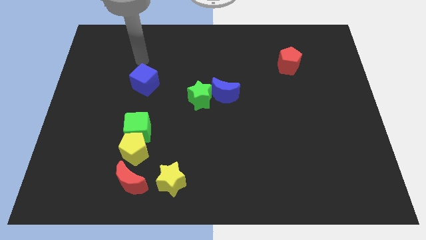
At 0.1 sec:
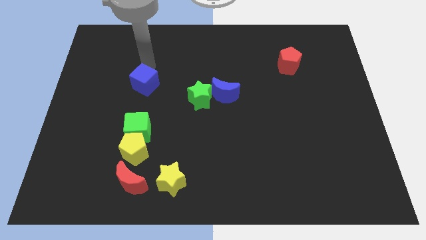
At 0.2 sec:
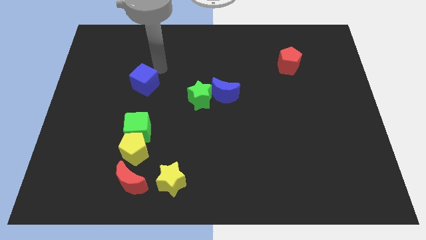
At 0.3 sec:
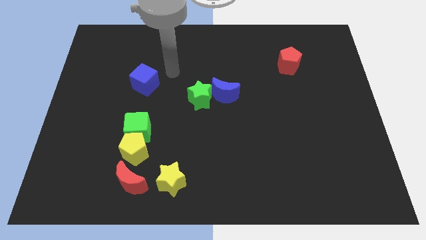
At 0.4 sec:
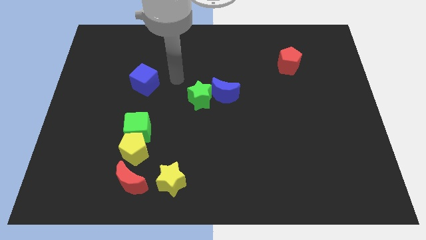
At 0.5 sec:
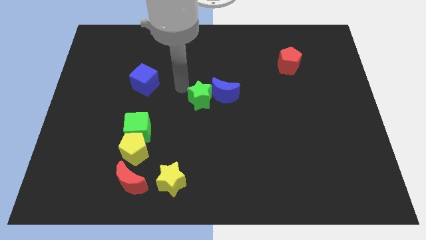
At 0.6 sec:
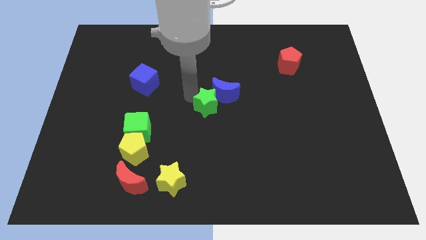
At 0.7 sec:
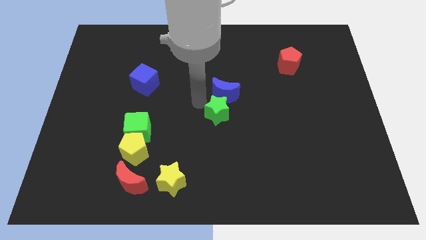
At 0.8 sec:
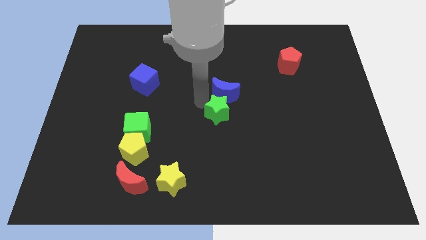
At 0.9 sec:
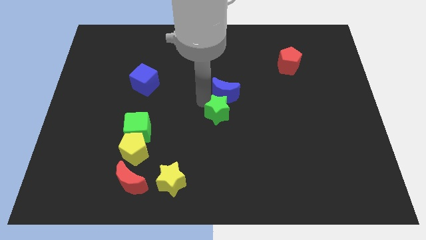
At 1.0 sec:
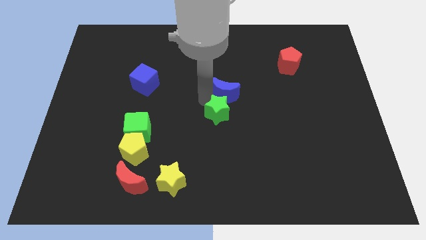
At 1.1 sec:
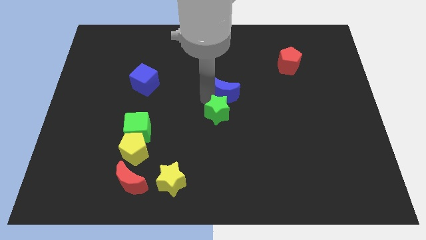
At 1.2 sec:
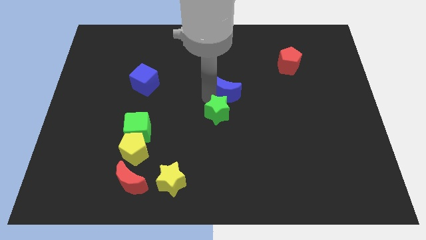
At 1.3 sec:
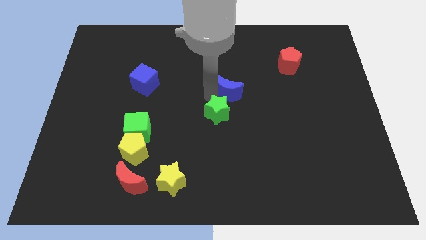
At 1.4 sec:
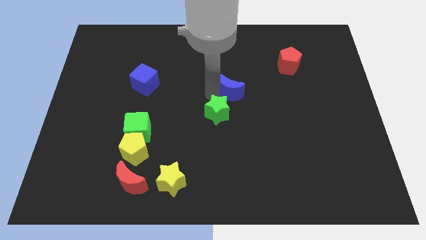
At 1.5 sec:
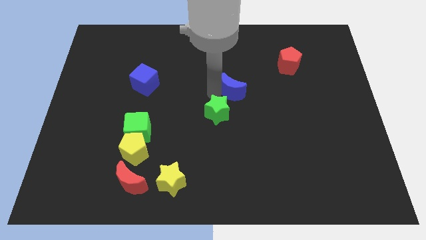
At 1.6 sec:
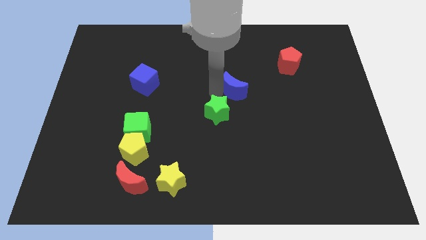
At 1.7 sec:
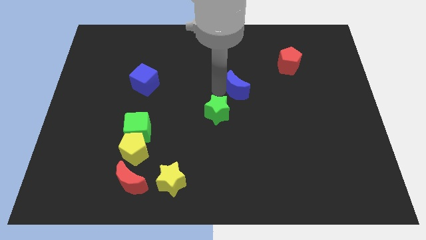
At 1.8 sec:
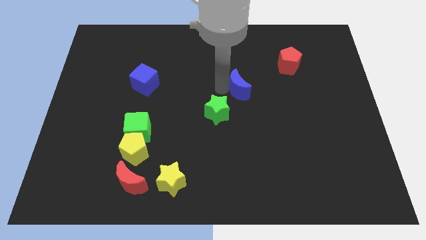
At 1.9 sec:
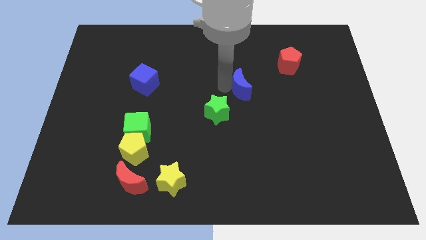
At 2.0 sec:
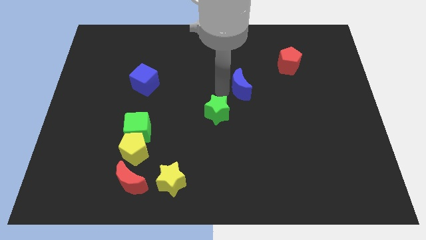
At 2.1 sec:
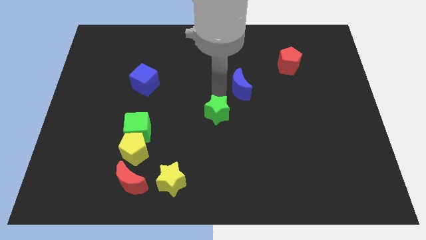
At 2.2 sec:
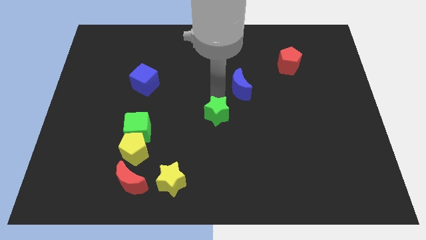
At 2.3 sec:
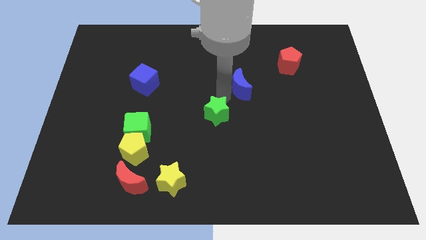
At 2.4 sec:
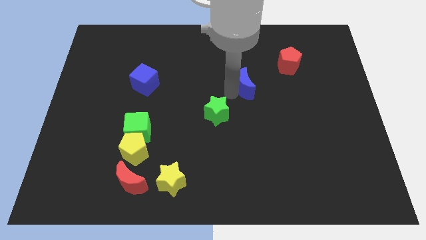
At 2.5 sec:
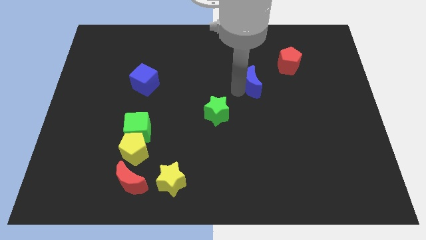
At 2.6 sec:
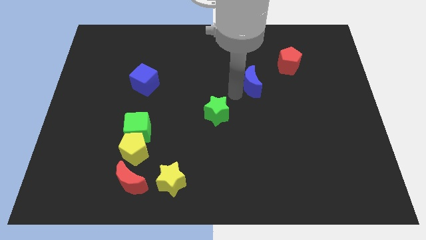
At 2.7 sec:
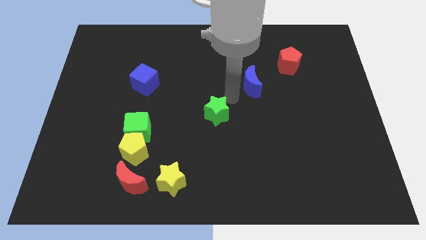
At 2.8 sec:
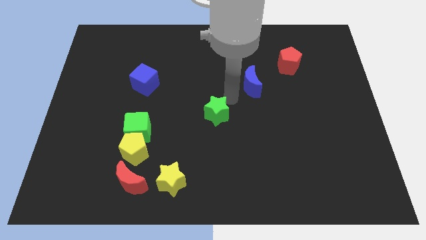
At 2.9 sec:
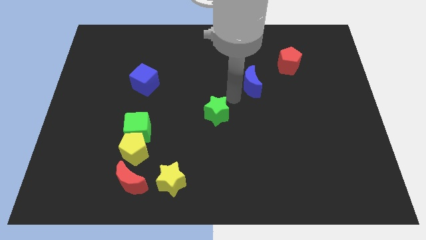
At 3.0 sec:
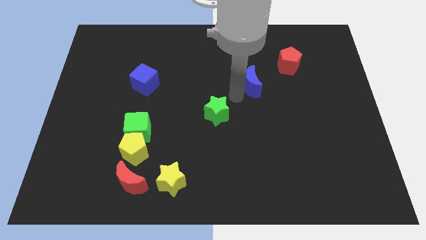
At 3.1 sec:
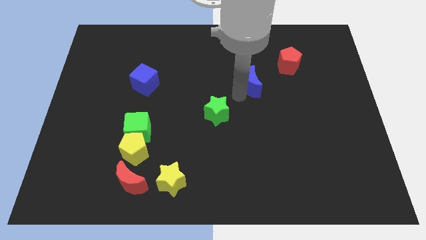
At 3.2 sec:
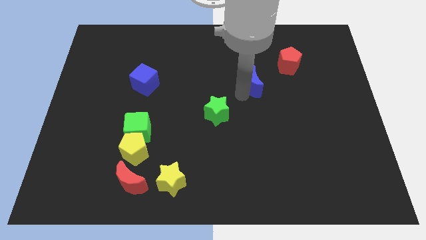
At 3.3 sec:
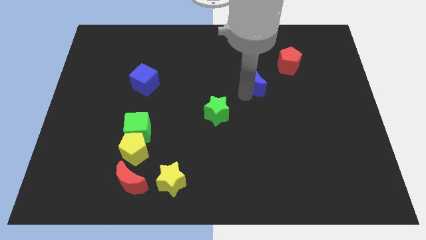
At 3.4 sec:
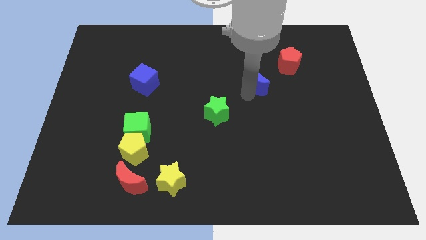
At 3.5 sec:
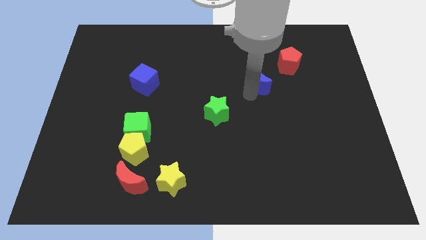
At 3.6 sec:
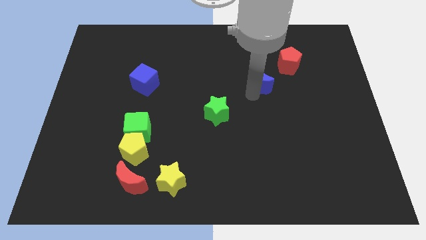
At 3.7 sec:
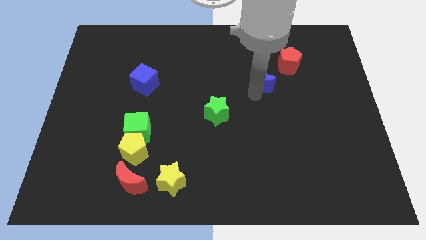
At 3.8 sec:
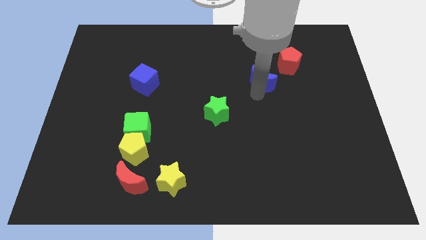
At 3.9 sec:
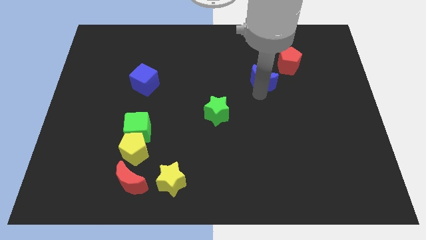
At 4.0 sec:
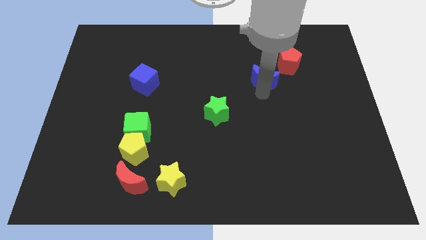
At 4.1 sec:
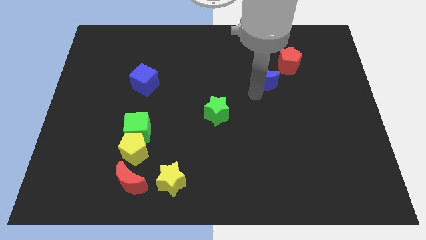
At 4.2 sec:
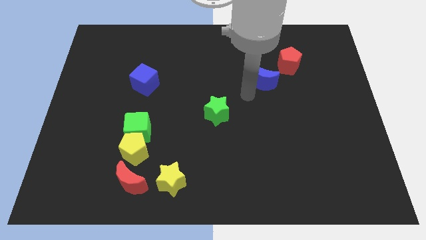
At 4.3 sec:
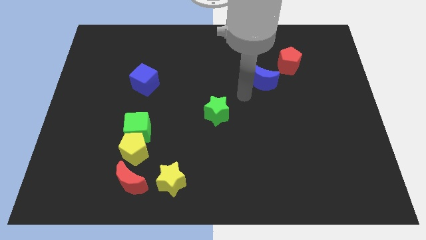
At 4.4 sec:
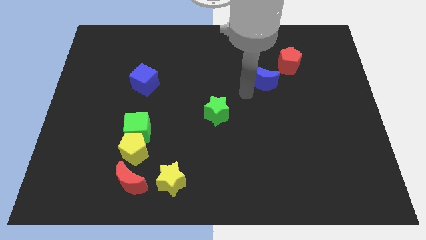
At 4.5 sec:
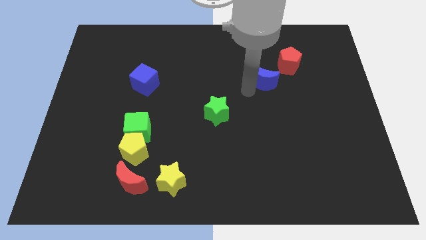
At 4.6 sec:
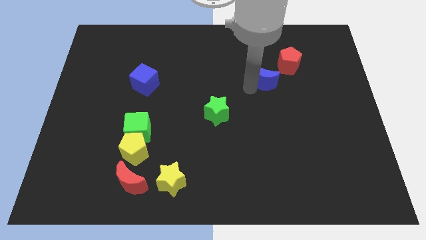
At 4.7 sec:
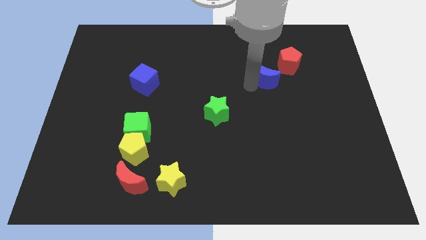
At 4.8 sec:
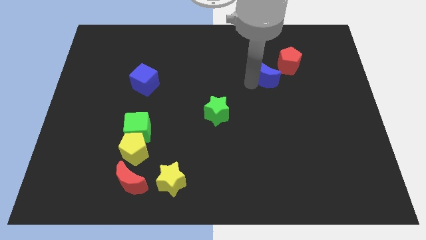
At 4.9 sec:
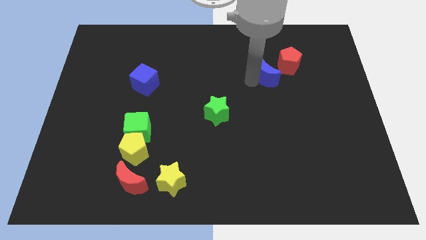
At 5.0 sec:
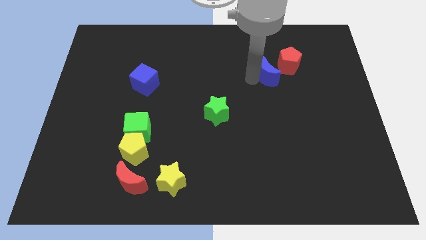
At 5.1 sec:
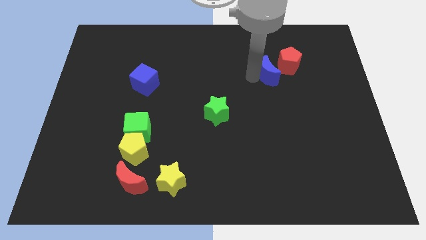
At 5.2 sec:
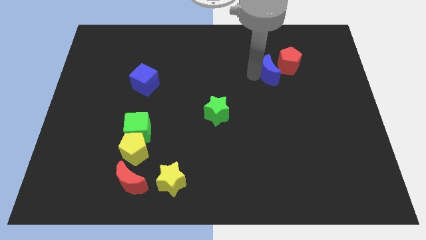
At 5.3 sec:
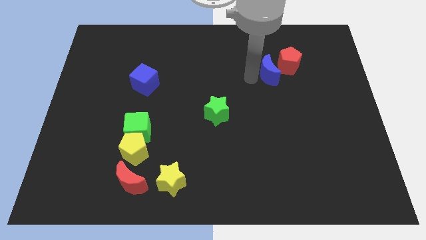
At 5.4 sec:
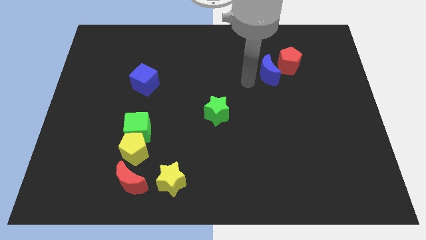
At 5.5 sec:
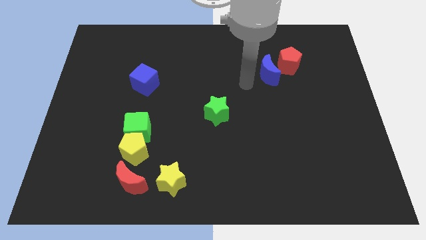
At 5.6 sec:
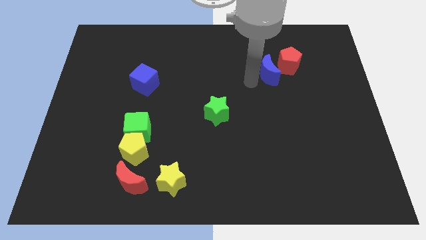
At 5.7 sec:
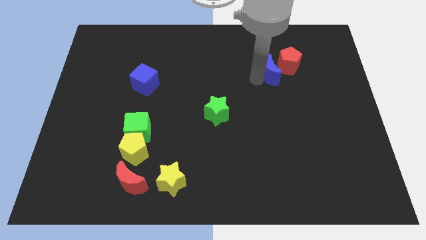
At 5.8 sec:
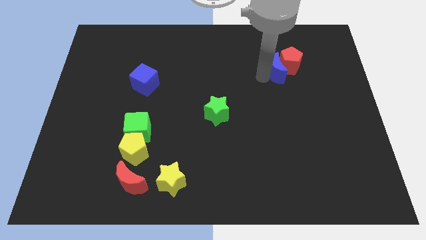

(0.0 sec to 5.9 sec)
put the blue moon close to the red pentagon
